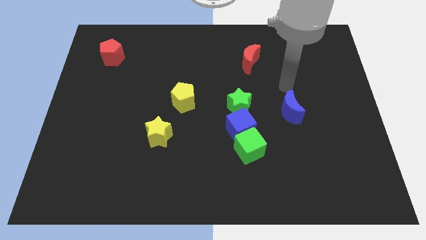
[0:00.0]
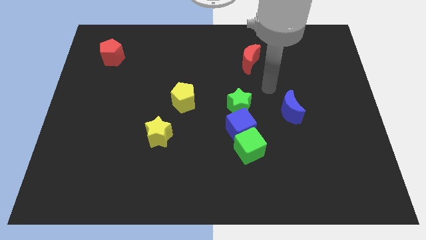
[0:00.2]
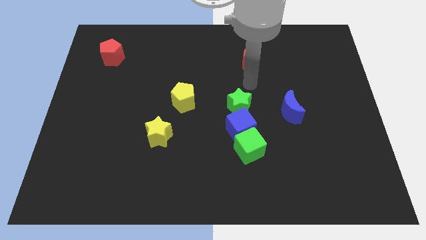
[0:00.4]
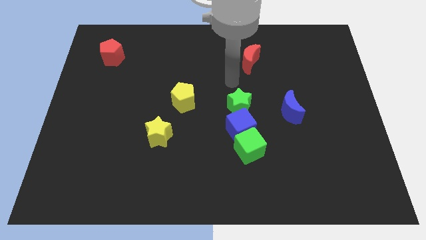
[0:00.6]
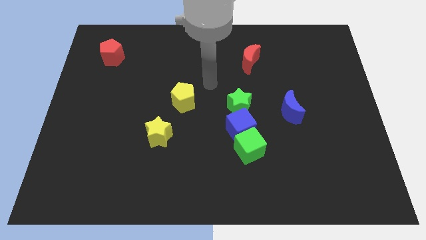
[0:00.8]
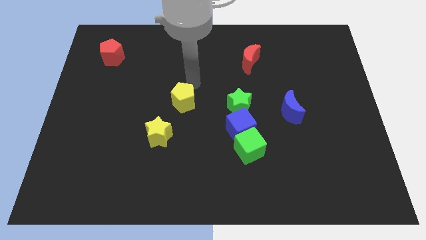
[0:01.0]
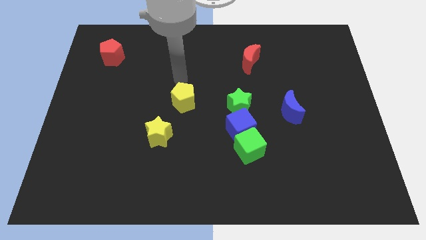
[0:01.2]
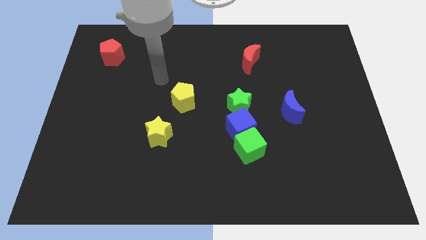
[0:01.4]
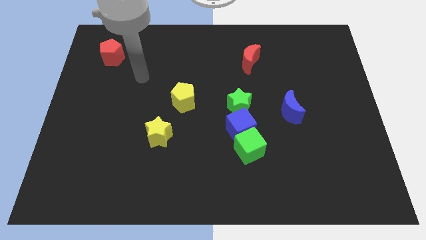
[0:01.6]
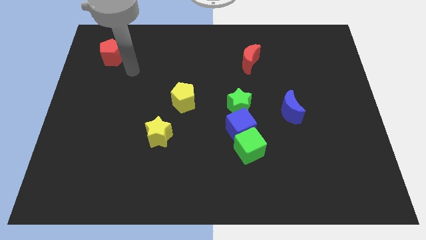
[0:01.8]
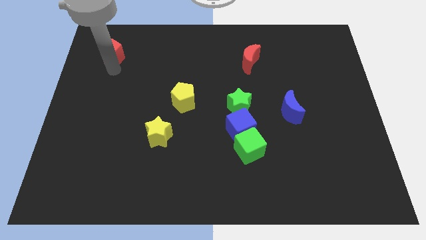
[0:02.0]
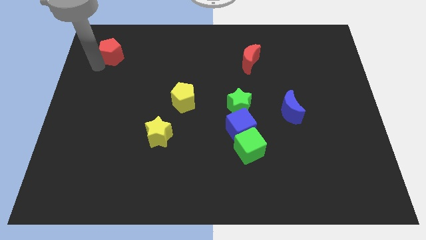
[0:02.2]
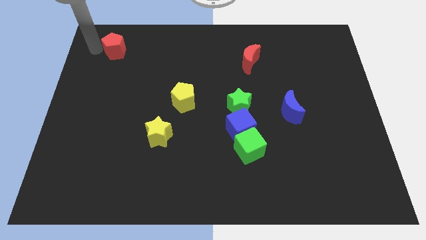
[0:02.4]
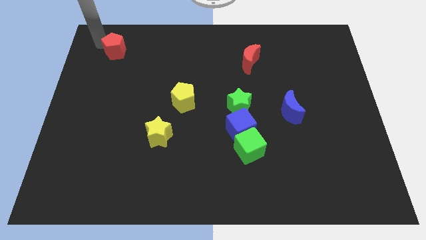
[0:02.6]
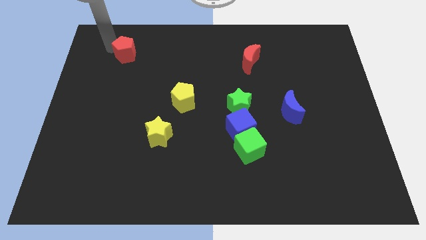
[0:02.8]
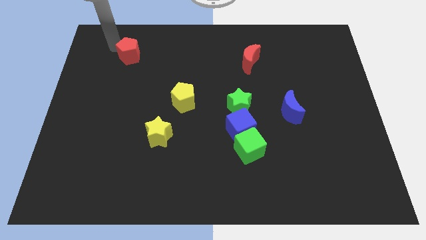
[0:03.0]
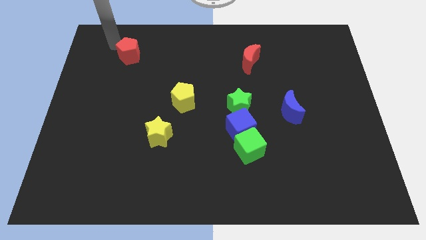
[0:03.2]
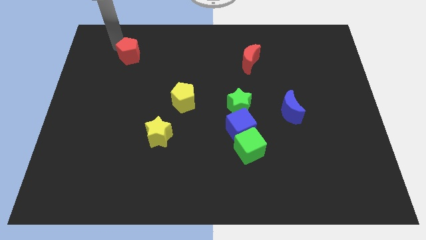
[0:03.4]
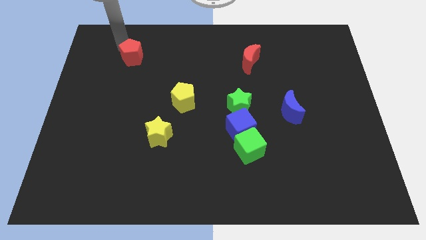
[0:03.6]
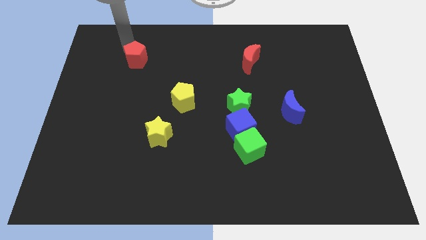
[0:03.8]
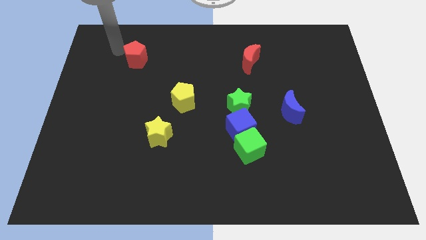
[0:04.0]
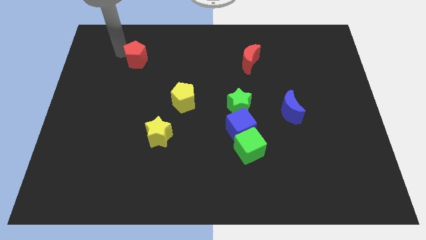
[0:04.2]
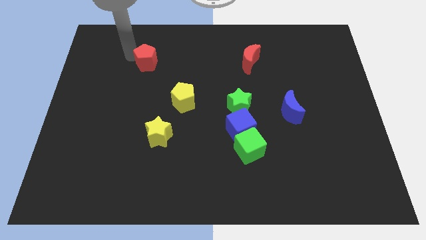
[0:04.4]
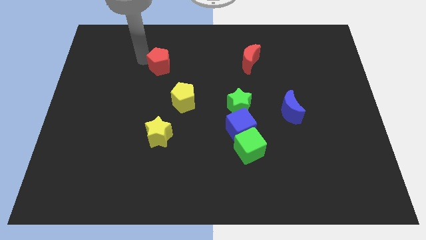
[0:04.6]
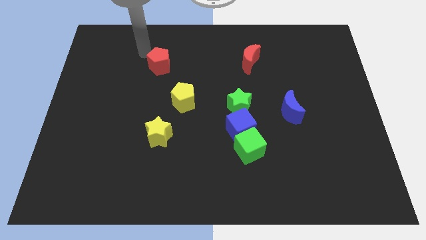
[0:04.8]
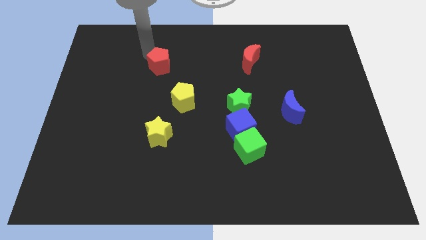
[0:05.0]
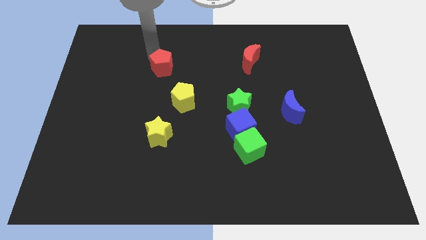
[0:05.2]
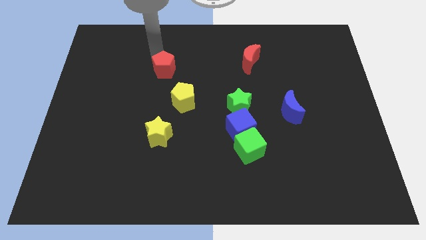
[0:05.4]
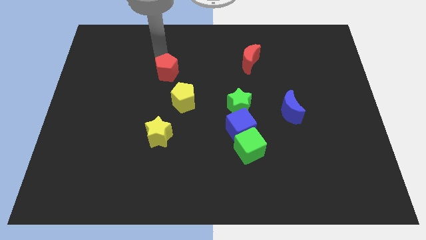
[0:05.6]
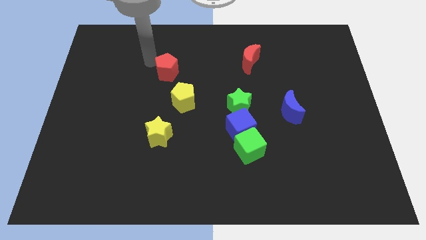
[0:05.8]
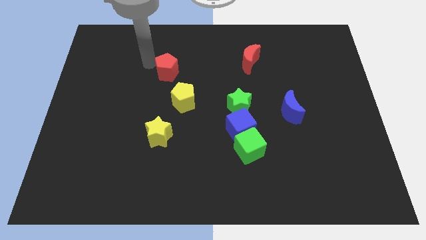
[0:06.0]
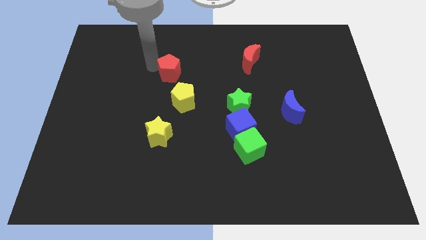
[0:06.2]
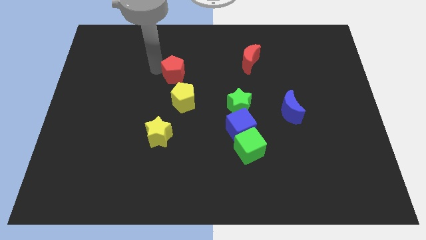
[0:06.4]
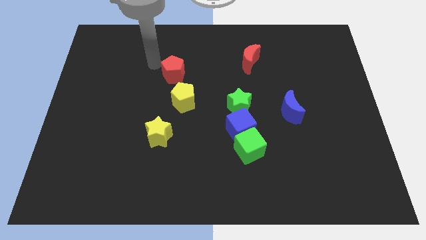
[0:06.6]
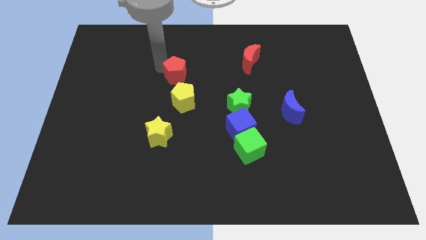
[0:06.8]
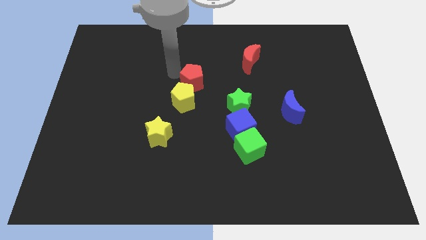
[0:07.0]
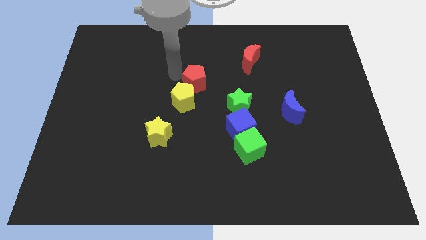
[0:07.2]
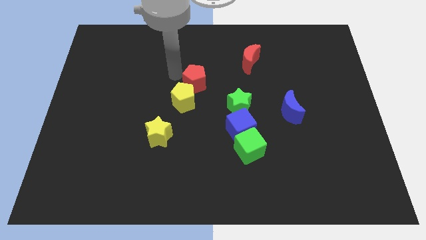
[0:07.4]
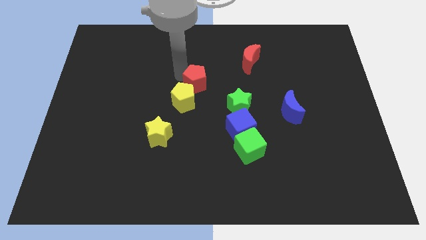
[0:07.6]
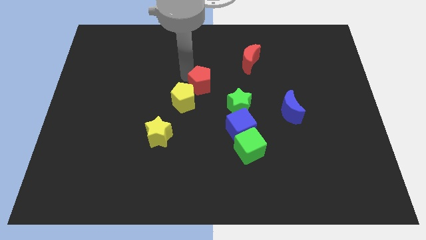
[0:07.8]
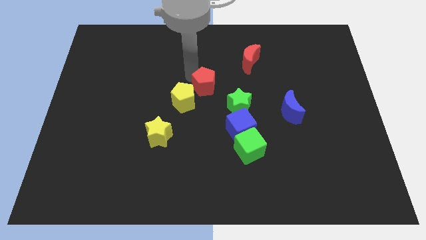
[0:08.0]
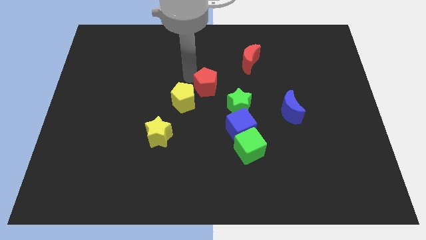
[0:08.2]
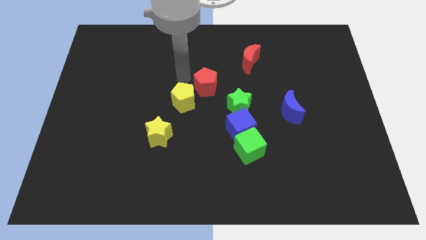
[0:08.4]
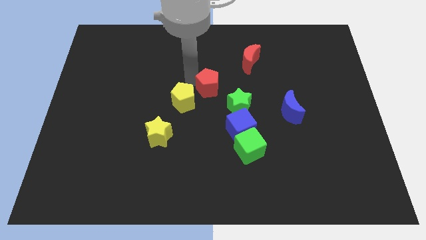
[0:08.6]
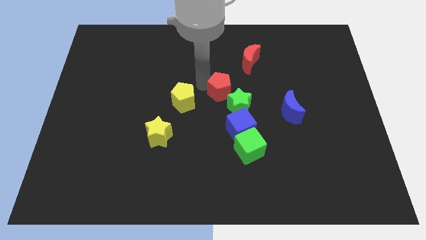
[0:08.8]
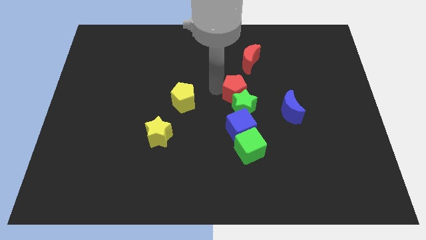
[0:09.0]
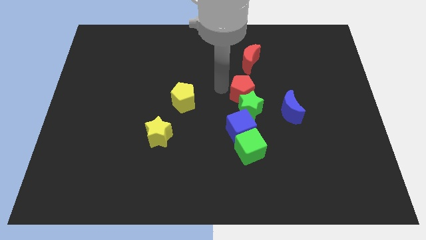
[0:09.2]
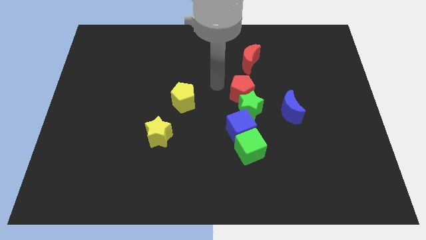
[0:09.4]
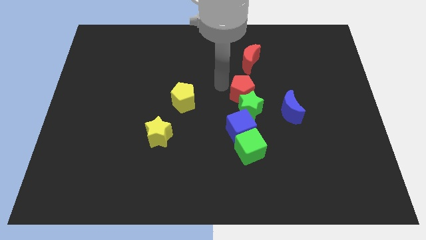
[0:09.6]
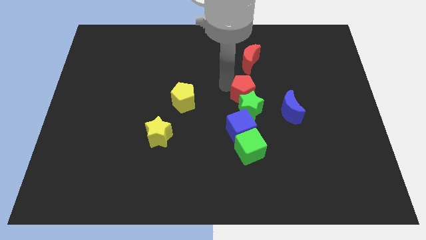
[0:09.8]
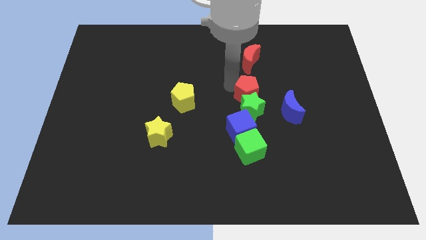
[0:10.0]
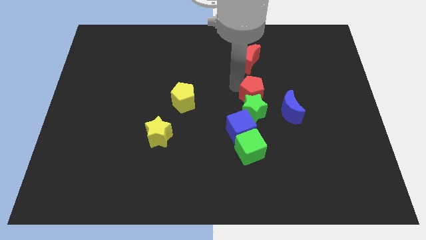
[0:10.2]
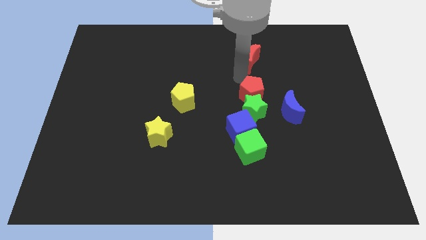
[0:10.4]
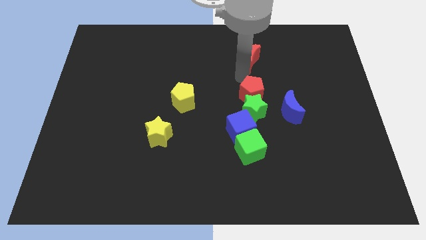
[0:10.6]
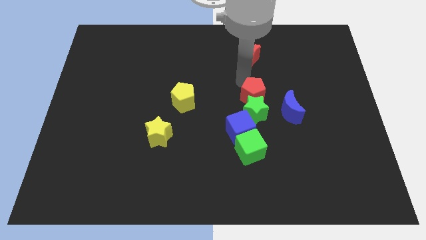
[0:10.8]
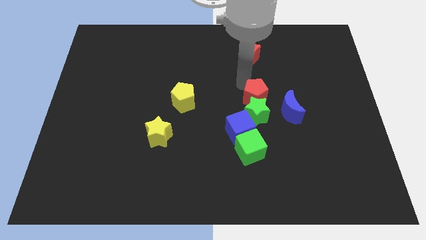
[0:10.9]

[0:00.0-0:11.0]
slide the red pentagon diagonally up and to the right of the blue cube
